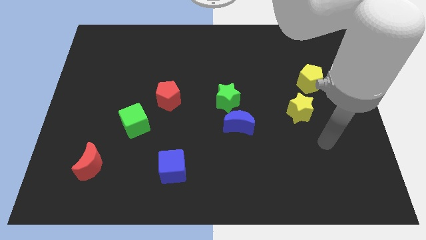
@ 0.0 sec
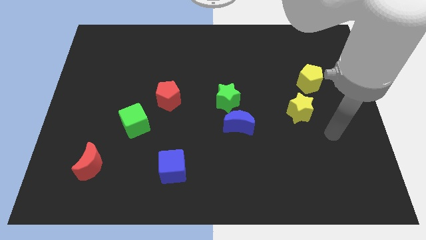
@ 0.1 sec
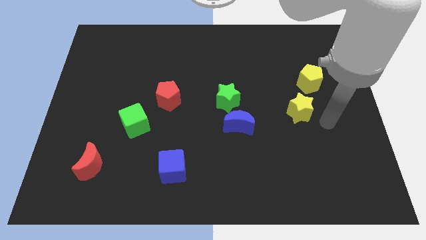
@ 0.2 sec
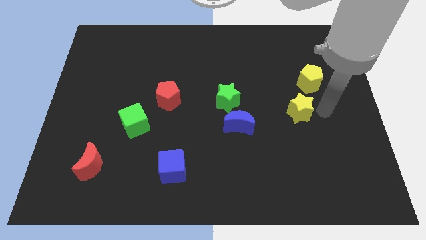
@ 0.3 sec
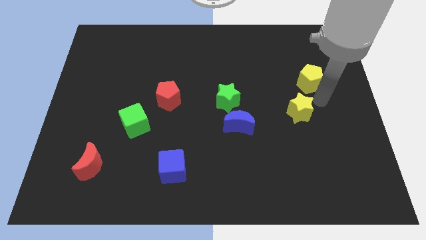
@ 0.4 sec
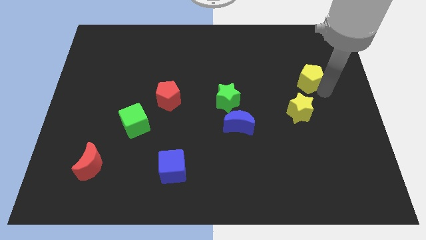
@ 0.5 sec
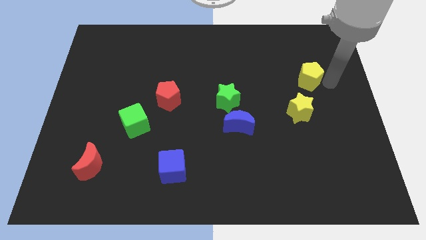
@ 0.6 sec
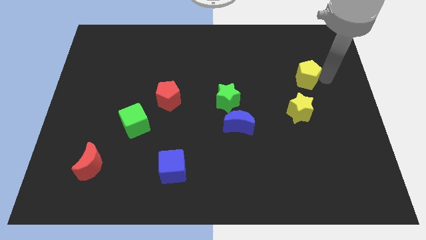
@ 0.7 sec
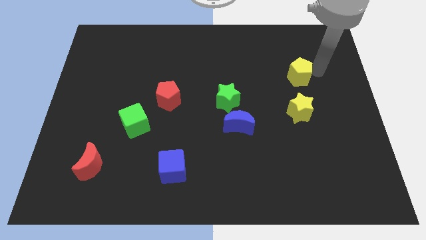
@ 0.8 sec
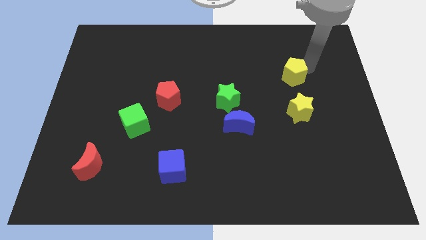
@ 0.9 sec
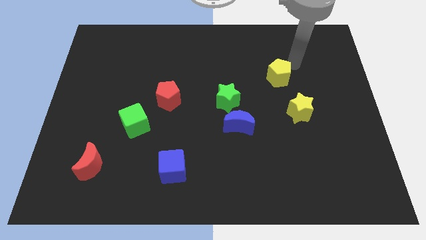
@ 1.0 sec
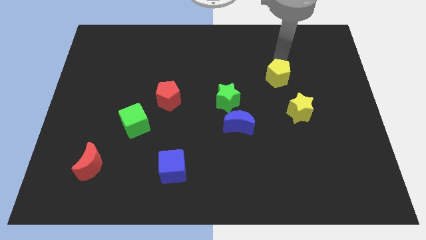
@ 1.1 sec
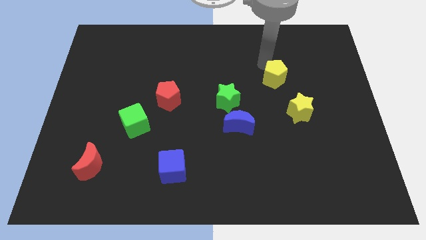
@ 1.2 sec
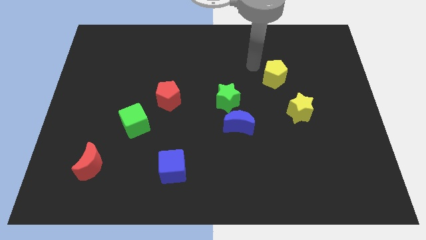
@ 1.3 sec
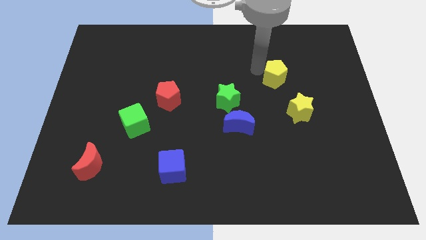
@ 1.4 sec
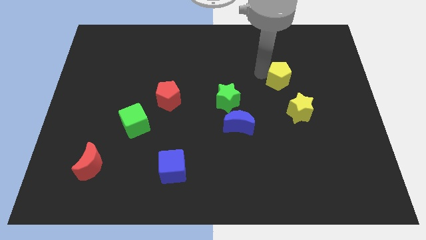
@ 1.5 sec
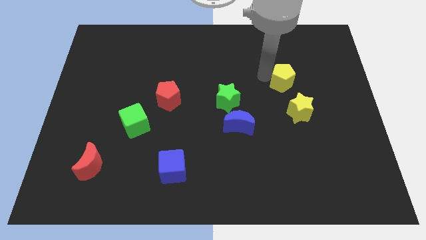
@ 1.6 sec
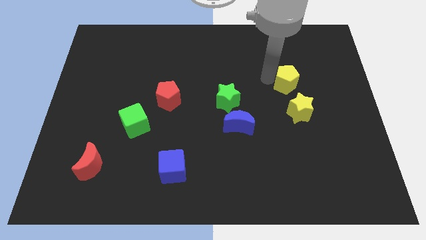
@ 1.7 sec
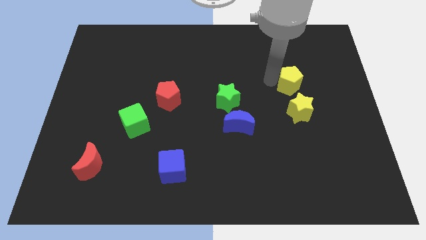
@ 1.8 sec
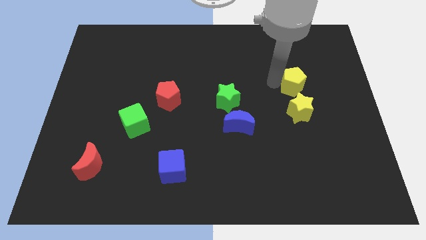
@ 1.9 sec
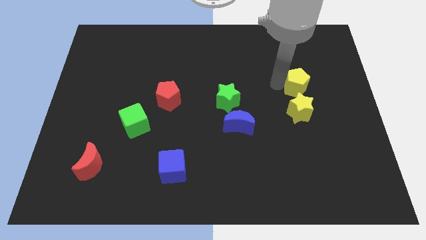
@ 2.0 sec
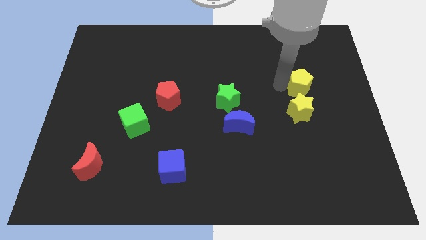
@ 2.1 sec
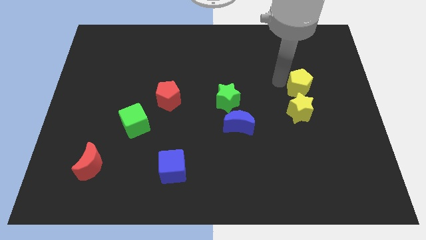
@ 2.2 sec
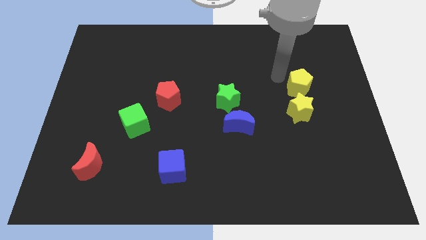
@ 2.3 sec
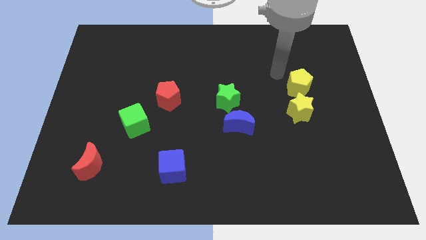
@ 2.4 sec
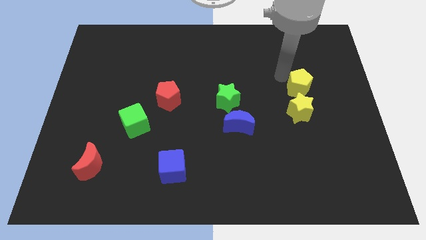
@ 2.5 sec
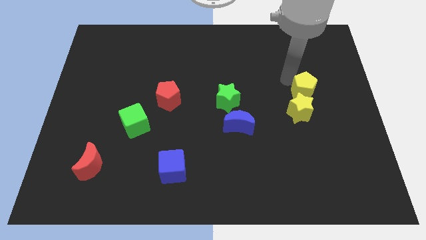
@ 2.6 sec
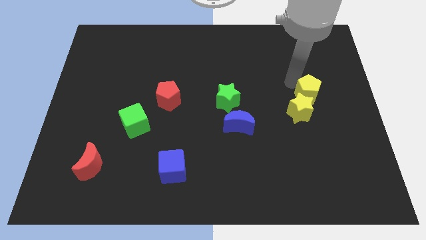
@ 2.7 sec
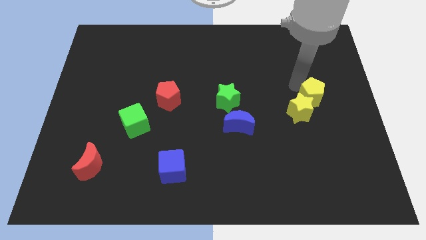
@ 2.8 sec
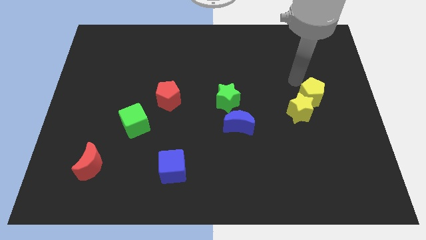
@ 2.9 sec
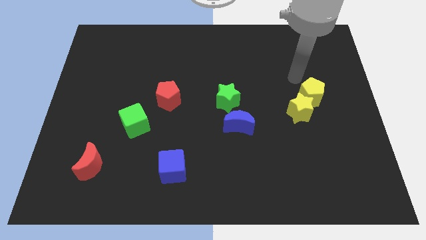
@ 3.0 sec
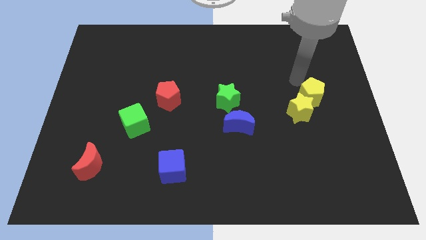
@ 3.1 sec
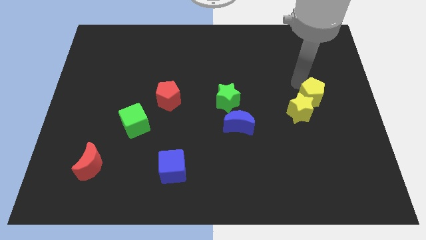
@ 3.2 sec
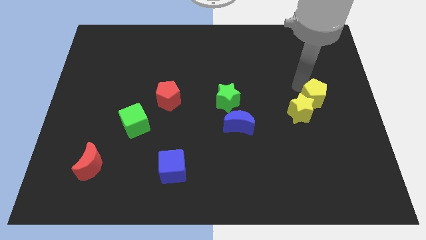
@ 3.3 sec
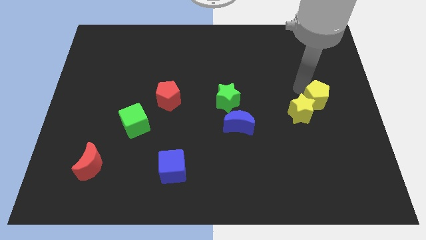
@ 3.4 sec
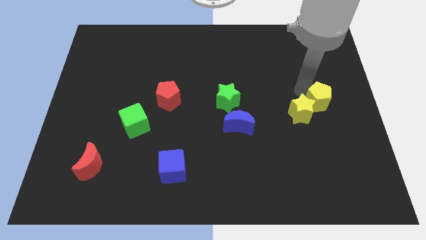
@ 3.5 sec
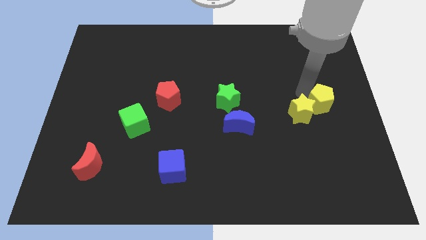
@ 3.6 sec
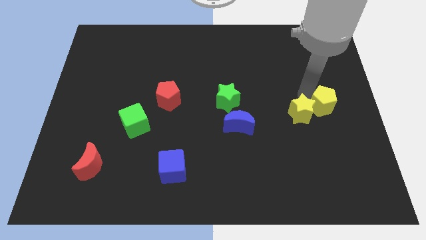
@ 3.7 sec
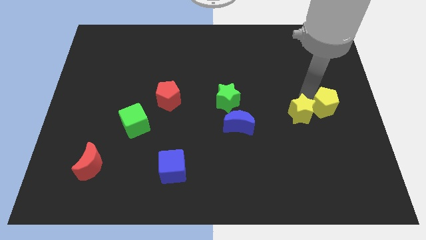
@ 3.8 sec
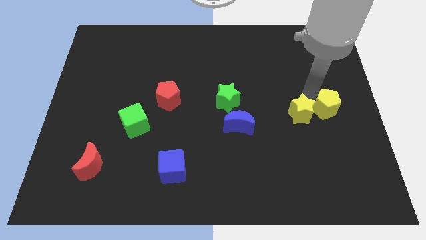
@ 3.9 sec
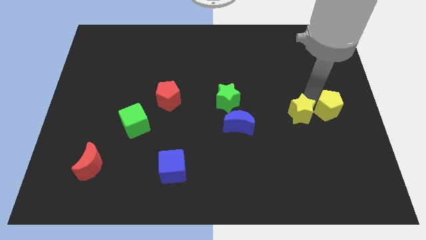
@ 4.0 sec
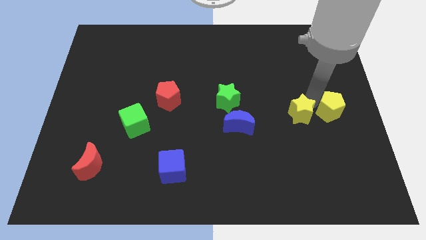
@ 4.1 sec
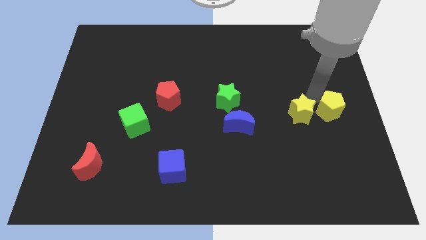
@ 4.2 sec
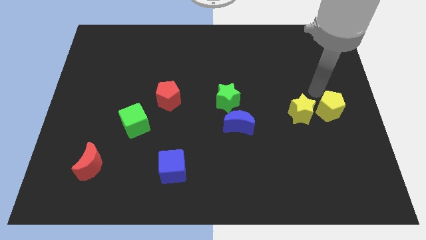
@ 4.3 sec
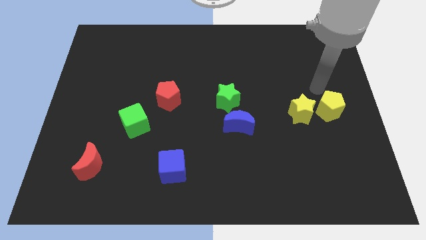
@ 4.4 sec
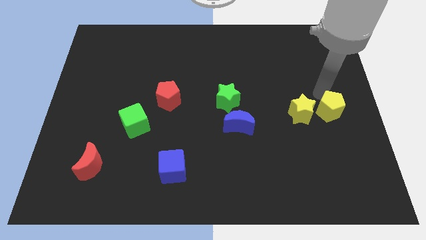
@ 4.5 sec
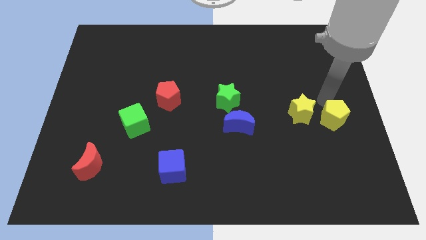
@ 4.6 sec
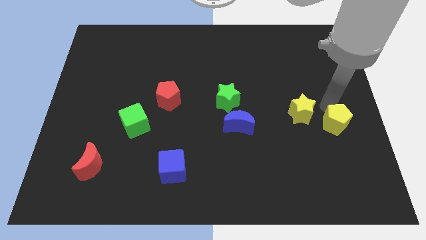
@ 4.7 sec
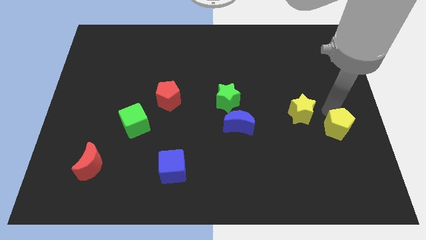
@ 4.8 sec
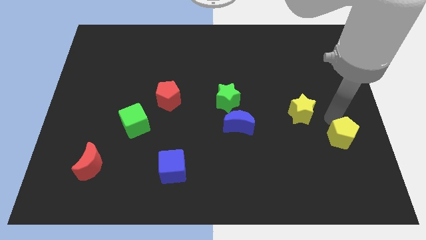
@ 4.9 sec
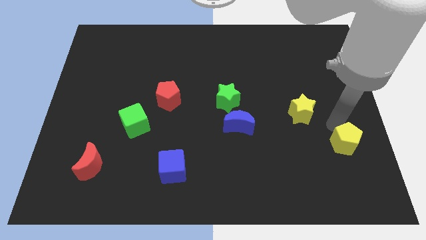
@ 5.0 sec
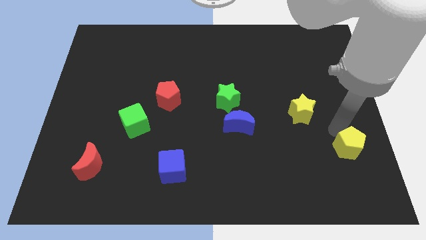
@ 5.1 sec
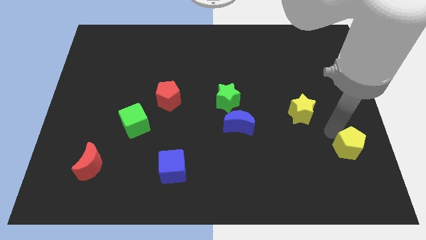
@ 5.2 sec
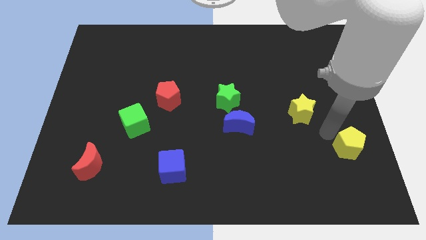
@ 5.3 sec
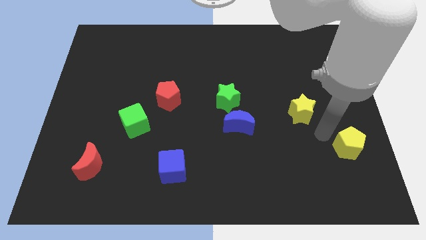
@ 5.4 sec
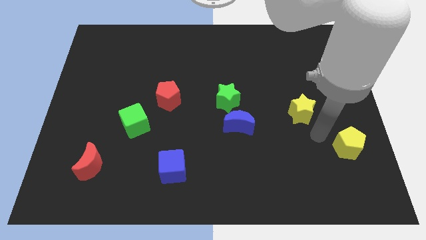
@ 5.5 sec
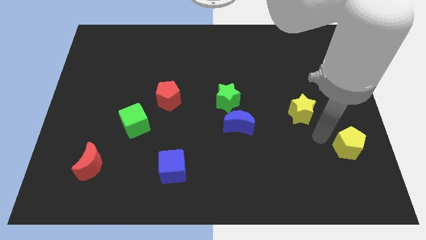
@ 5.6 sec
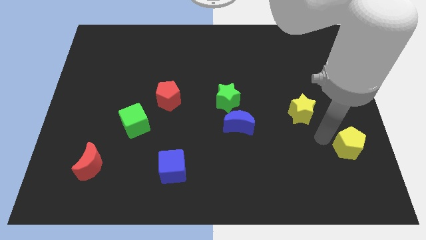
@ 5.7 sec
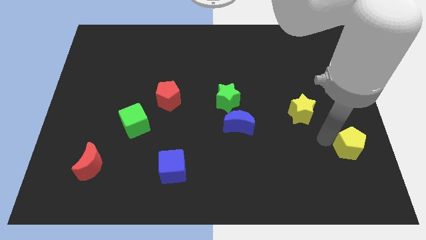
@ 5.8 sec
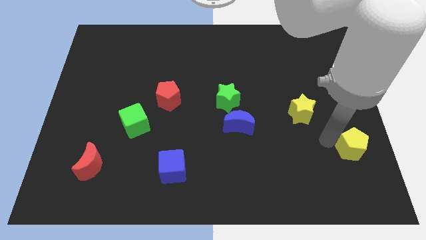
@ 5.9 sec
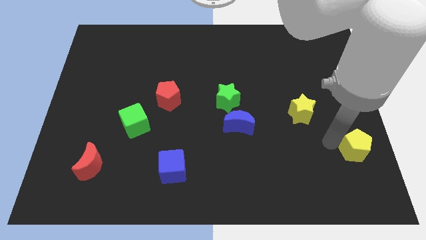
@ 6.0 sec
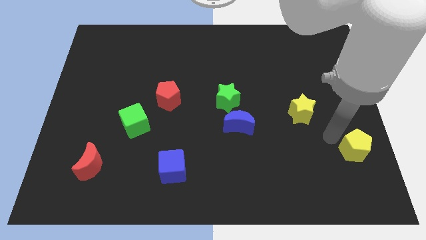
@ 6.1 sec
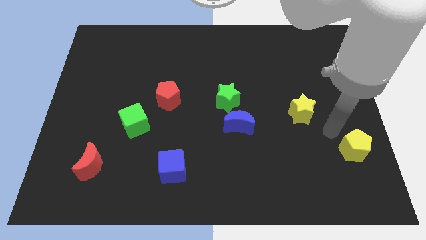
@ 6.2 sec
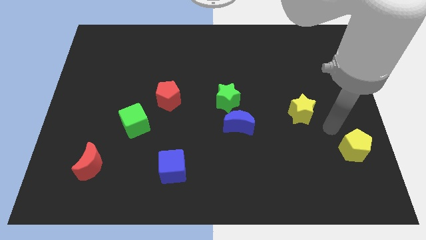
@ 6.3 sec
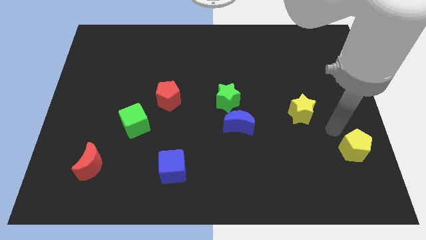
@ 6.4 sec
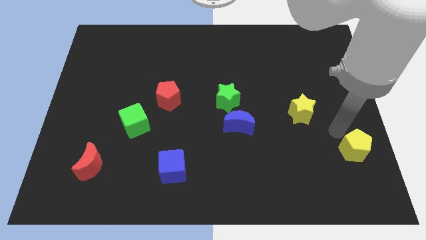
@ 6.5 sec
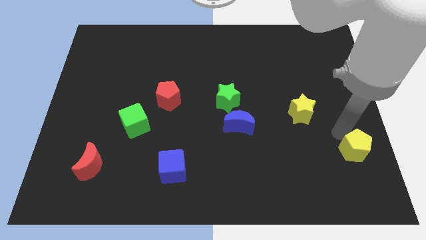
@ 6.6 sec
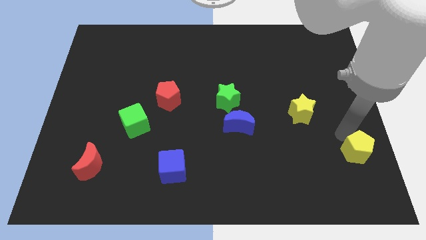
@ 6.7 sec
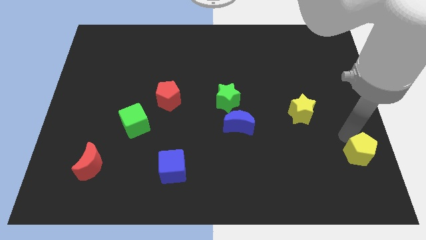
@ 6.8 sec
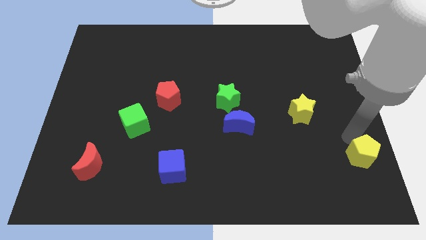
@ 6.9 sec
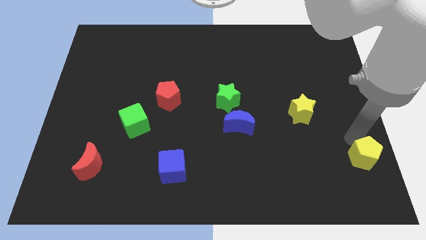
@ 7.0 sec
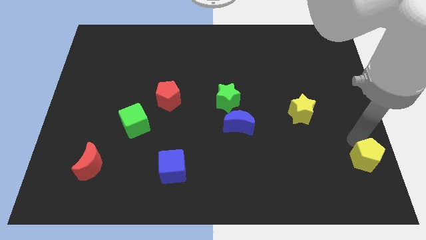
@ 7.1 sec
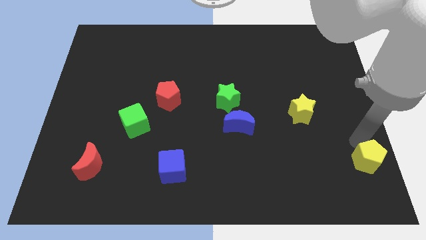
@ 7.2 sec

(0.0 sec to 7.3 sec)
put the yellow pentagon to the bottom right corner
